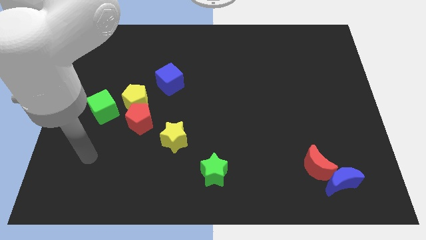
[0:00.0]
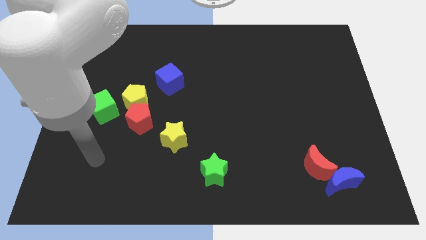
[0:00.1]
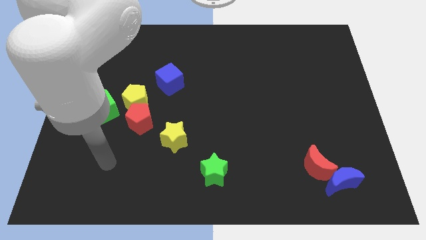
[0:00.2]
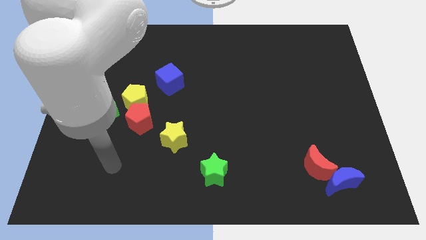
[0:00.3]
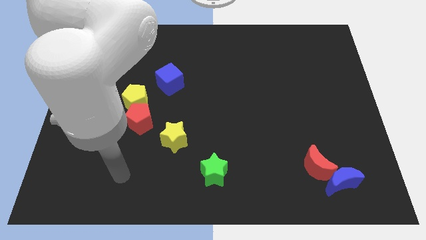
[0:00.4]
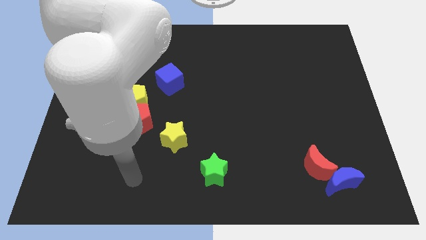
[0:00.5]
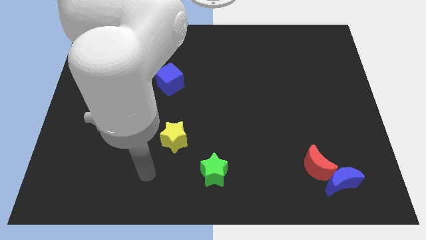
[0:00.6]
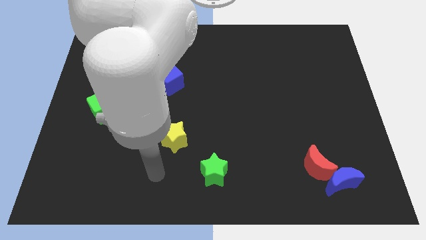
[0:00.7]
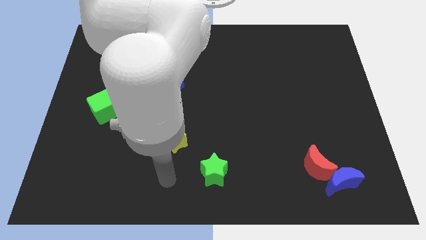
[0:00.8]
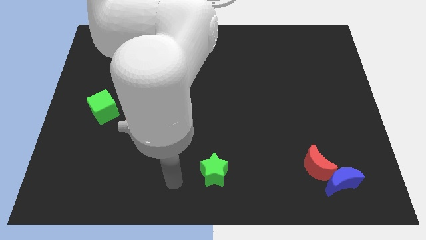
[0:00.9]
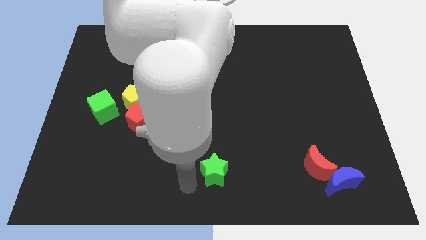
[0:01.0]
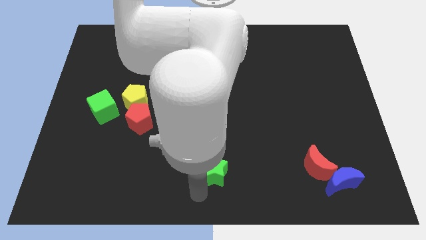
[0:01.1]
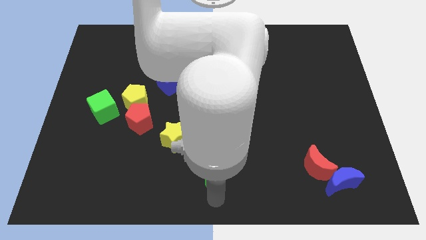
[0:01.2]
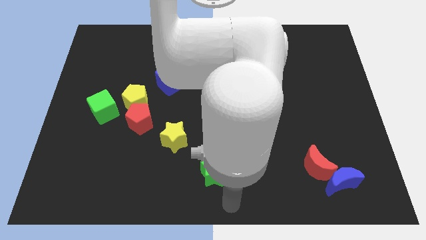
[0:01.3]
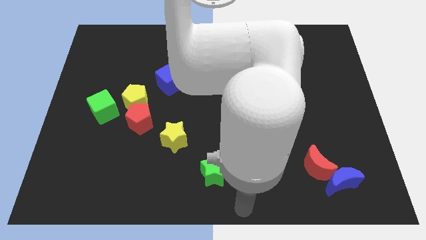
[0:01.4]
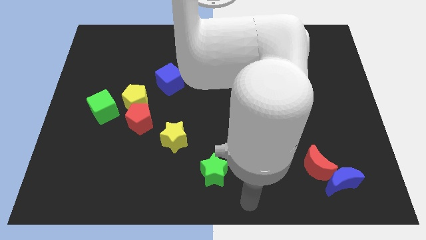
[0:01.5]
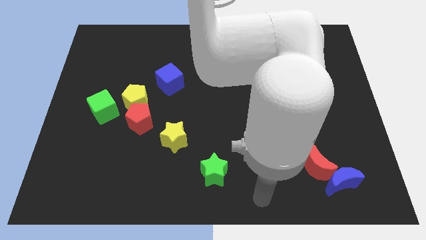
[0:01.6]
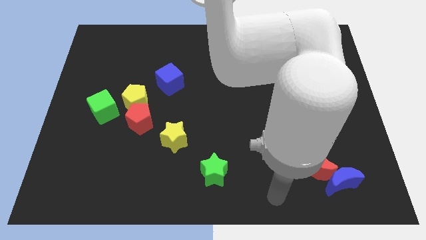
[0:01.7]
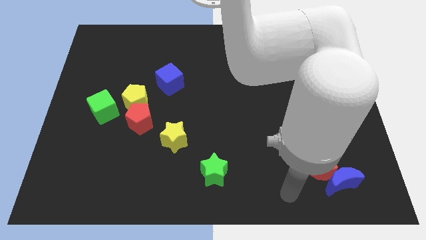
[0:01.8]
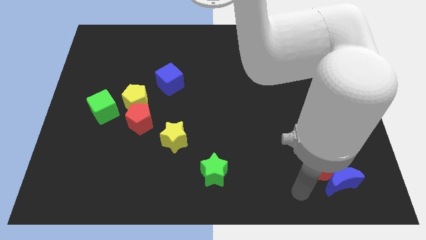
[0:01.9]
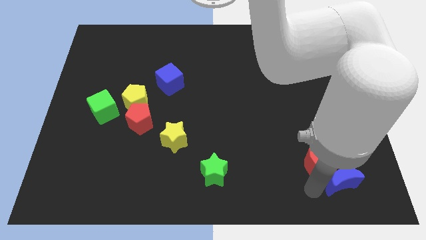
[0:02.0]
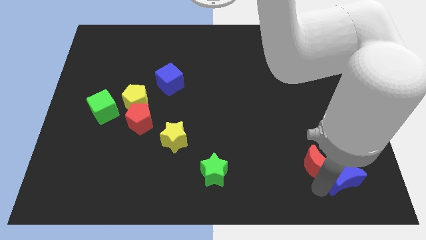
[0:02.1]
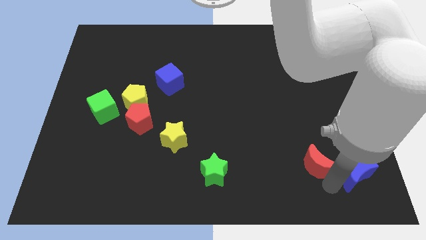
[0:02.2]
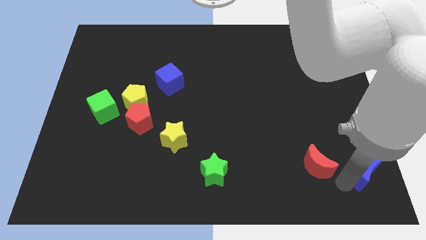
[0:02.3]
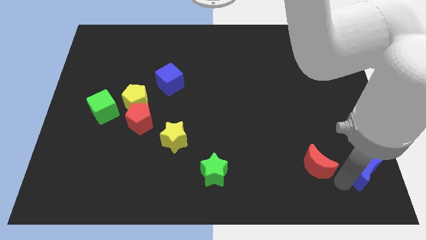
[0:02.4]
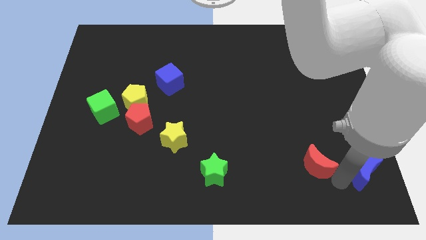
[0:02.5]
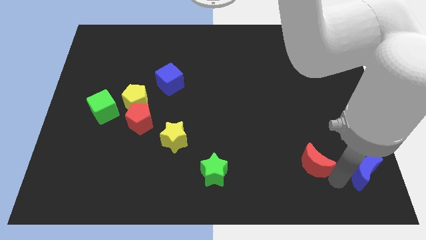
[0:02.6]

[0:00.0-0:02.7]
move the red moon away from the blue moon

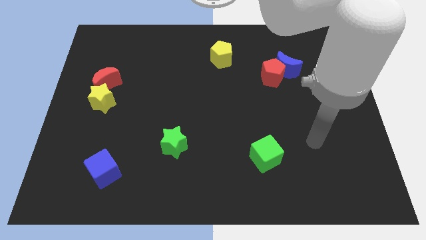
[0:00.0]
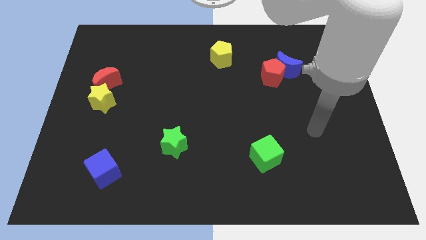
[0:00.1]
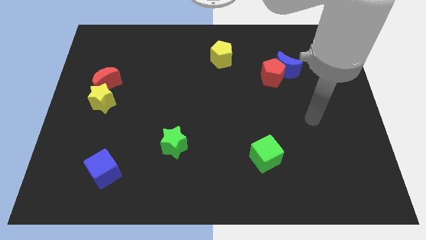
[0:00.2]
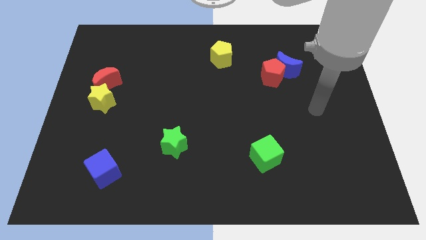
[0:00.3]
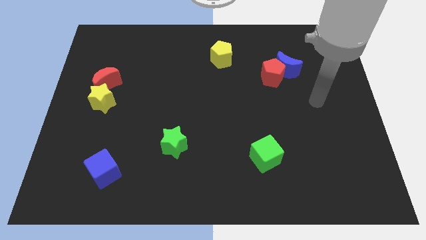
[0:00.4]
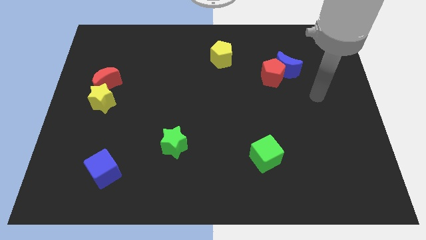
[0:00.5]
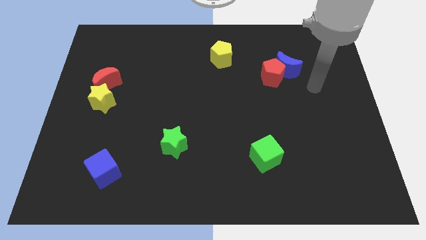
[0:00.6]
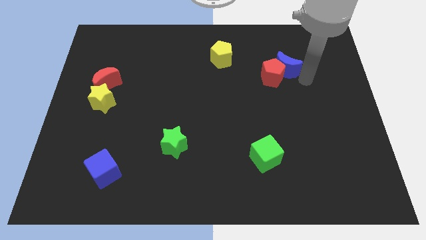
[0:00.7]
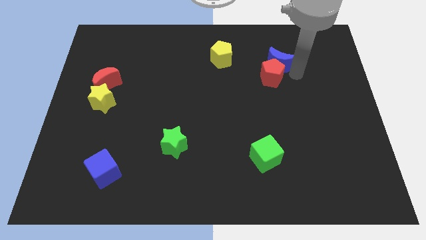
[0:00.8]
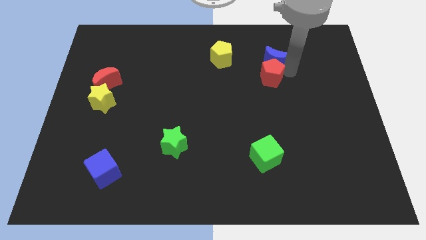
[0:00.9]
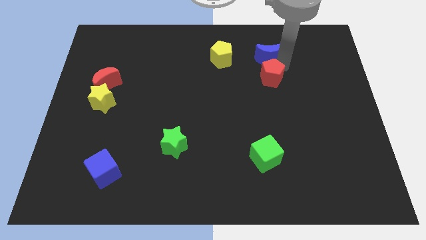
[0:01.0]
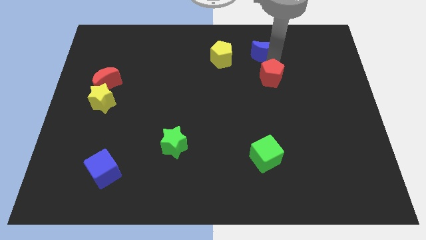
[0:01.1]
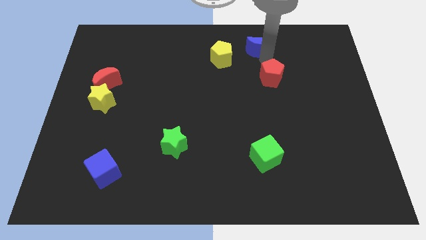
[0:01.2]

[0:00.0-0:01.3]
separate the red pentagon from the blue moon

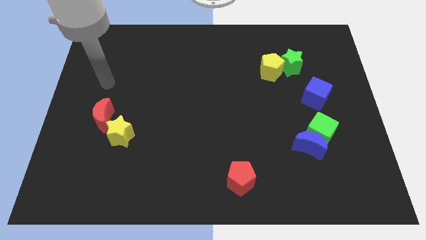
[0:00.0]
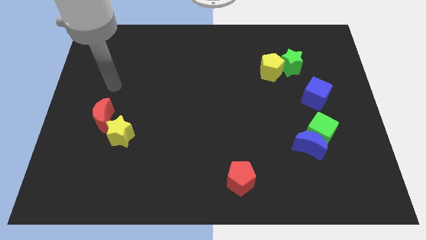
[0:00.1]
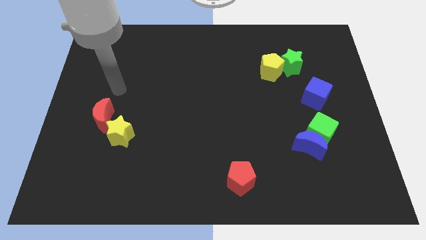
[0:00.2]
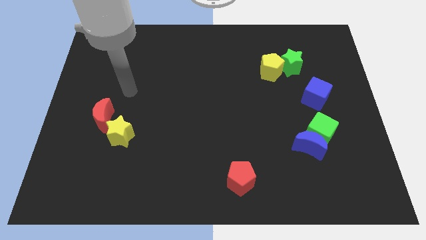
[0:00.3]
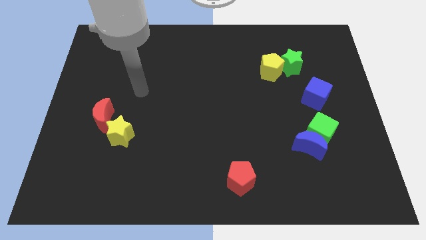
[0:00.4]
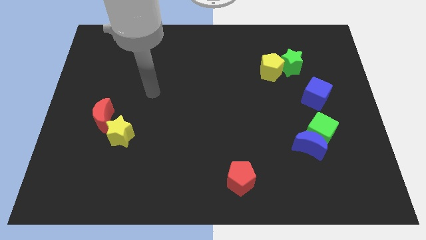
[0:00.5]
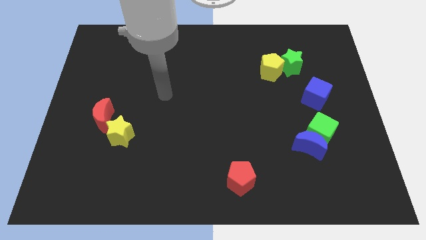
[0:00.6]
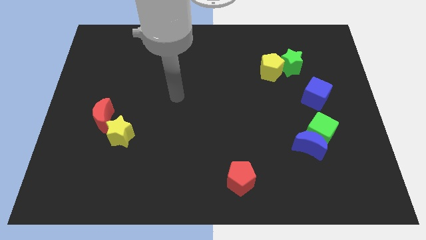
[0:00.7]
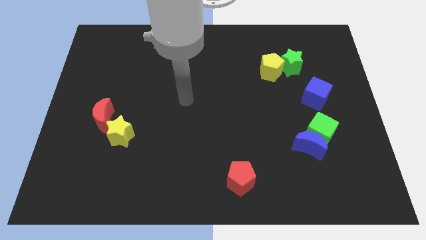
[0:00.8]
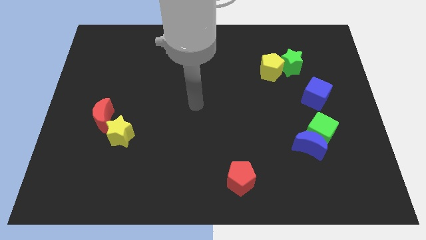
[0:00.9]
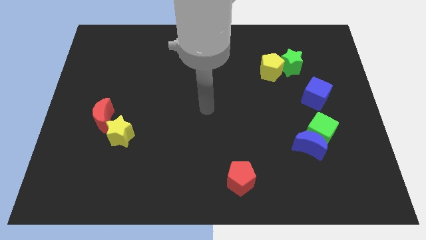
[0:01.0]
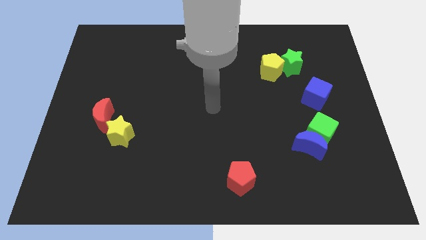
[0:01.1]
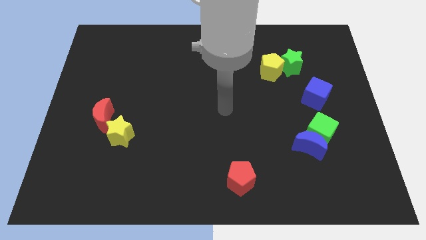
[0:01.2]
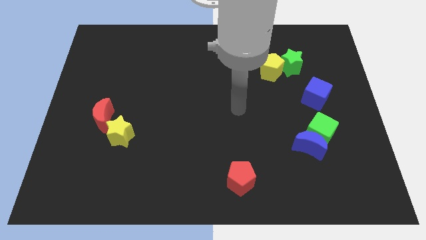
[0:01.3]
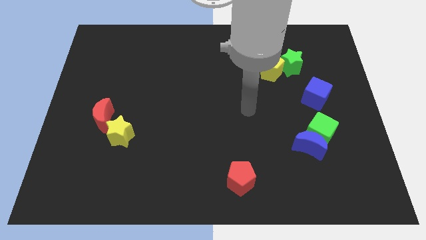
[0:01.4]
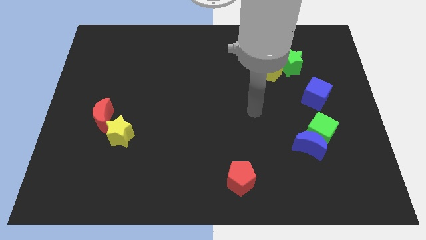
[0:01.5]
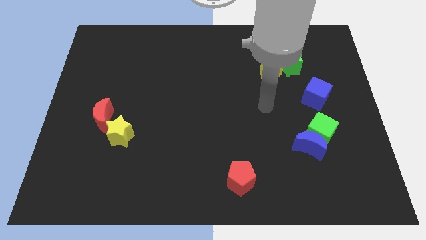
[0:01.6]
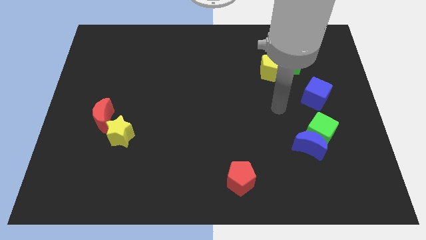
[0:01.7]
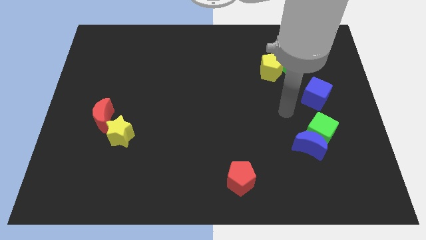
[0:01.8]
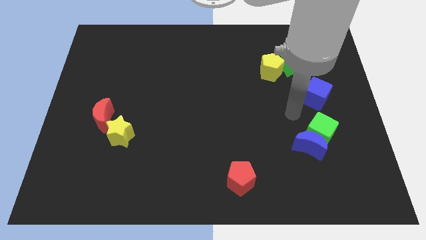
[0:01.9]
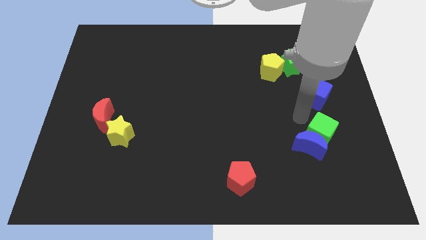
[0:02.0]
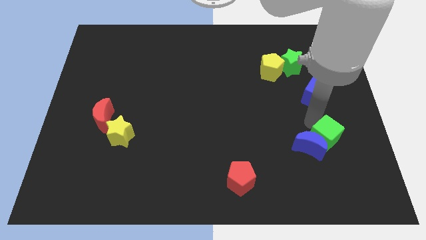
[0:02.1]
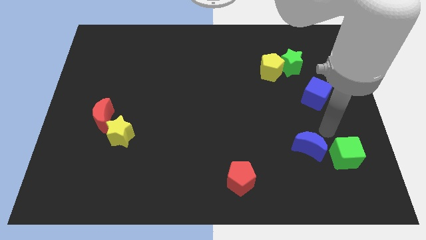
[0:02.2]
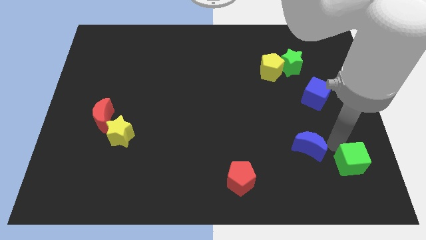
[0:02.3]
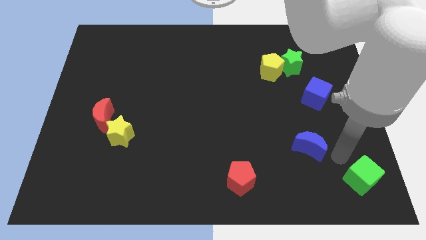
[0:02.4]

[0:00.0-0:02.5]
pull the blue moon apart from the green cube

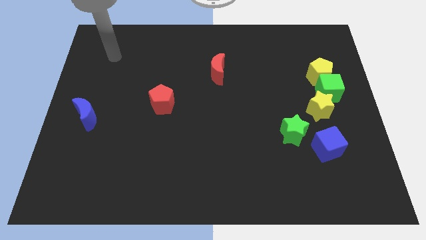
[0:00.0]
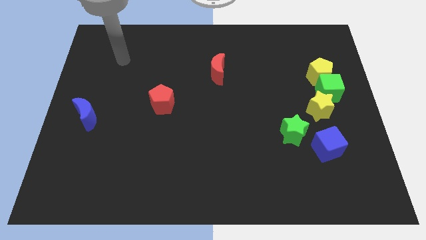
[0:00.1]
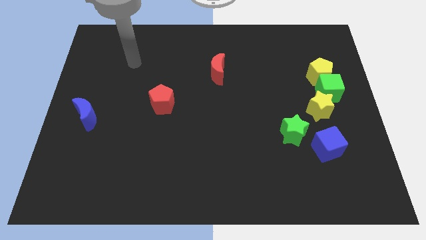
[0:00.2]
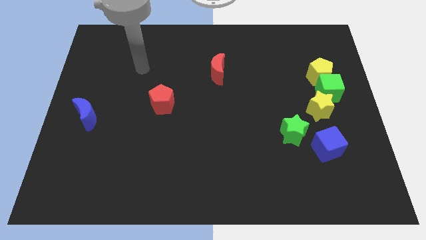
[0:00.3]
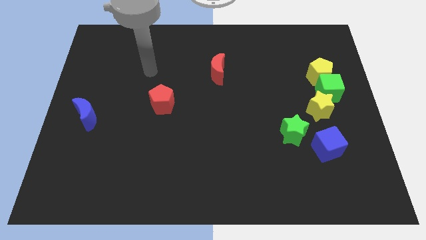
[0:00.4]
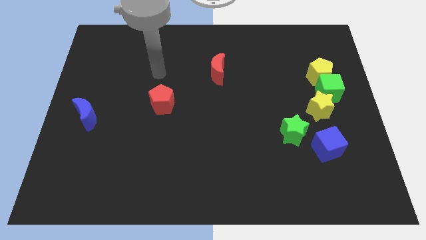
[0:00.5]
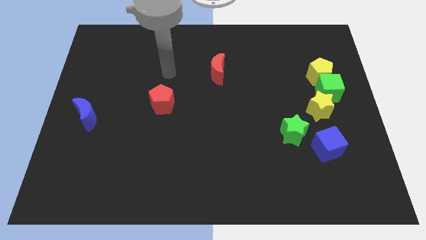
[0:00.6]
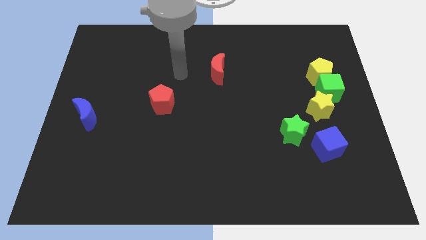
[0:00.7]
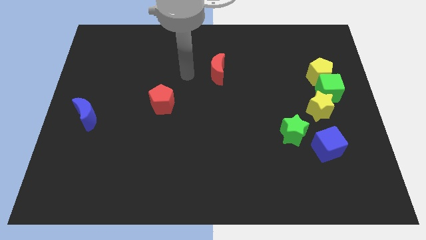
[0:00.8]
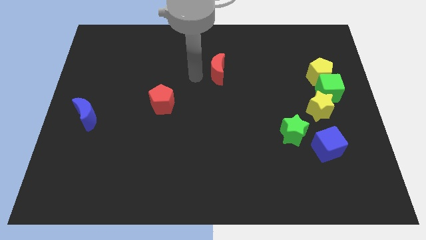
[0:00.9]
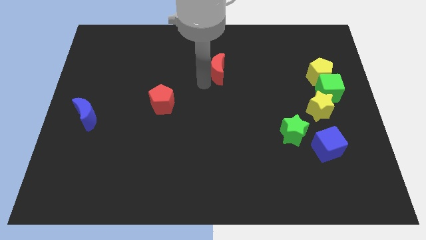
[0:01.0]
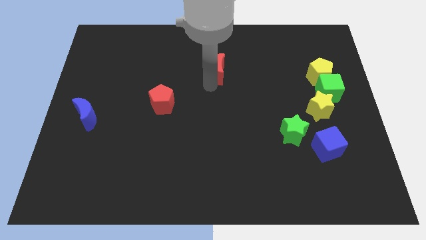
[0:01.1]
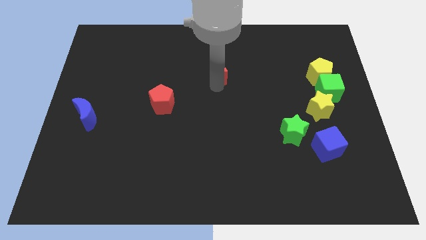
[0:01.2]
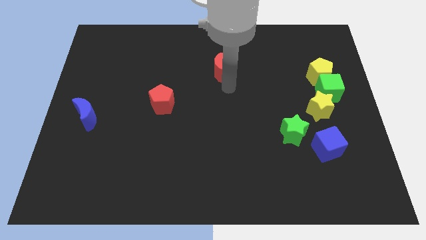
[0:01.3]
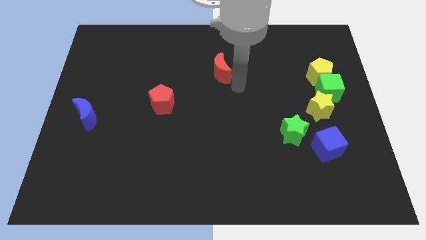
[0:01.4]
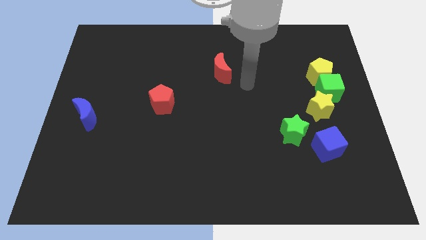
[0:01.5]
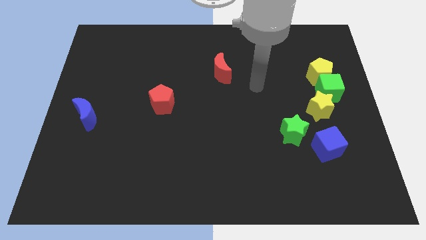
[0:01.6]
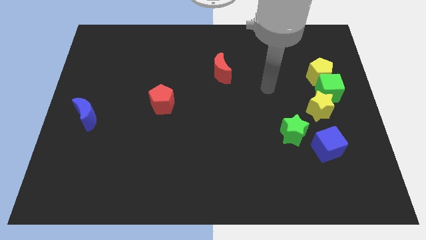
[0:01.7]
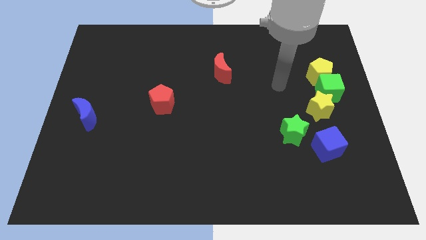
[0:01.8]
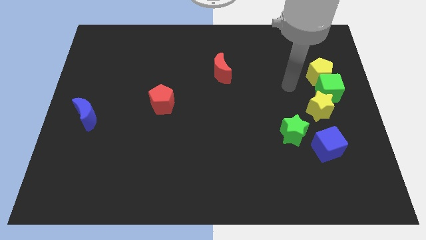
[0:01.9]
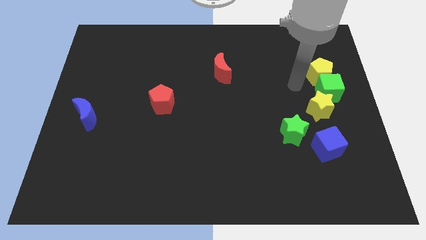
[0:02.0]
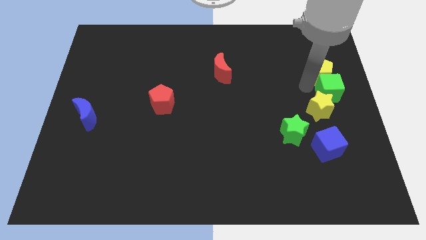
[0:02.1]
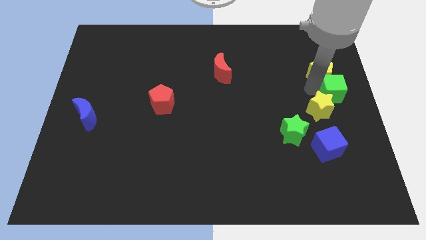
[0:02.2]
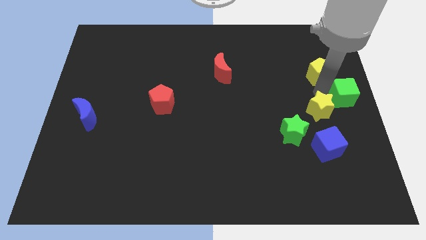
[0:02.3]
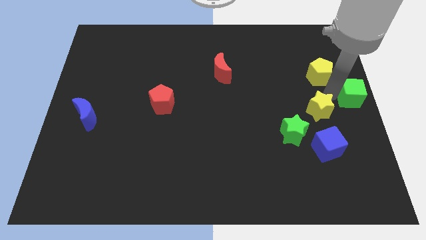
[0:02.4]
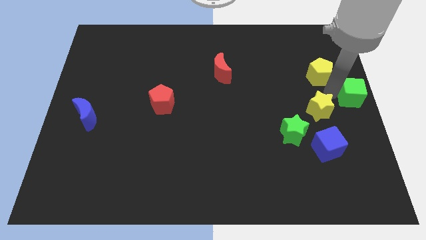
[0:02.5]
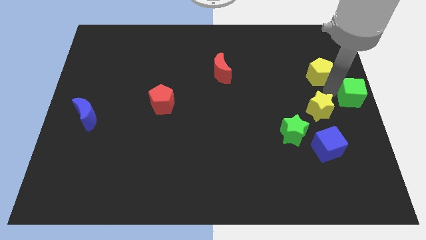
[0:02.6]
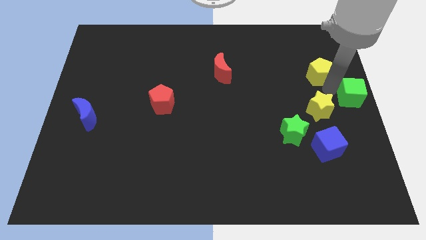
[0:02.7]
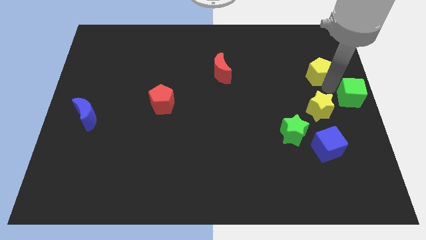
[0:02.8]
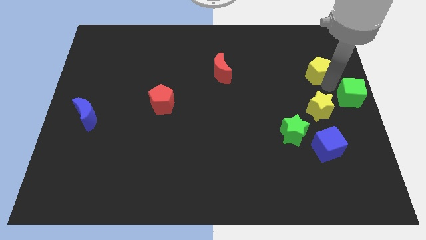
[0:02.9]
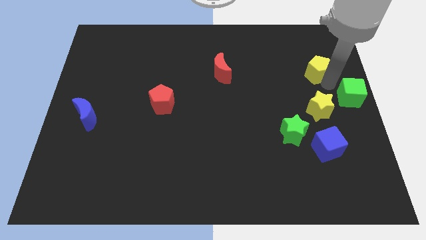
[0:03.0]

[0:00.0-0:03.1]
pull the yellow pentagon apart from the green cube
